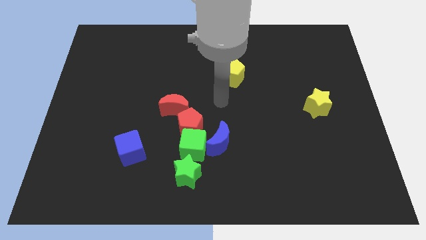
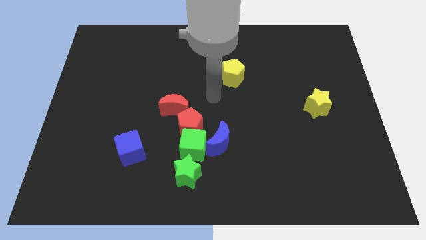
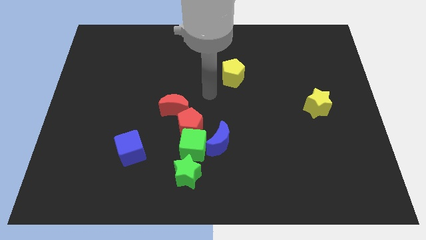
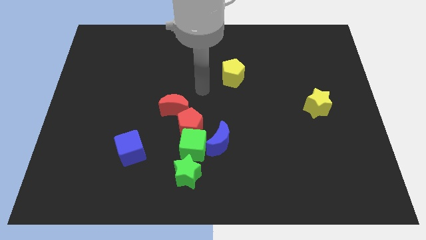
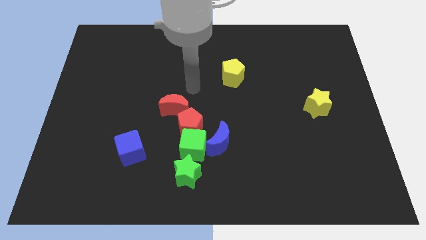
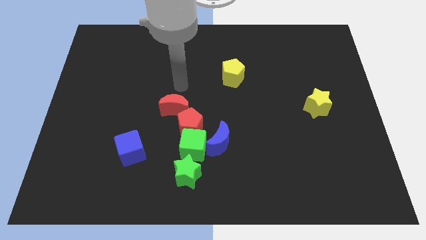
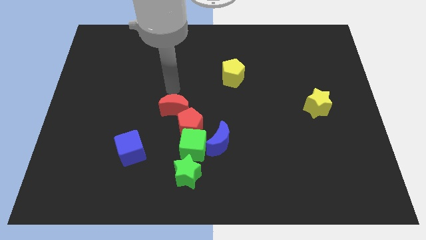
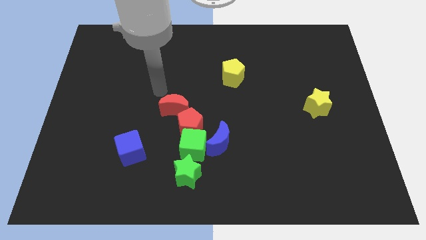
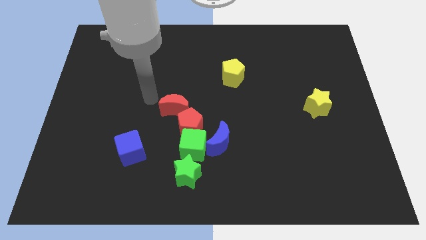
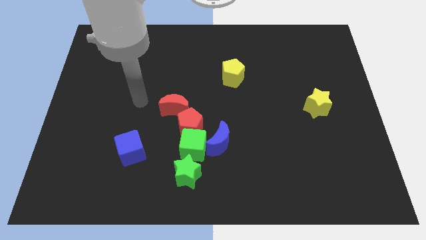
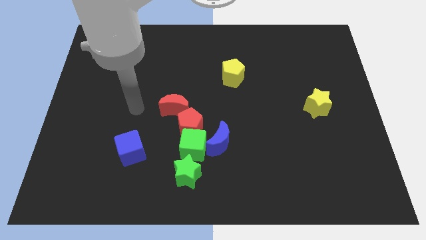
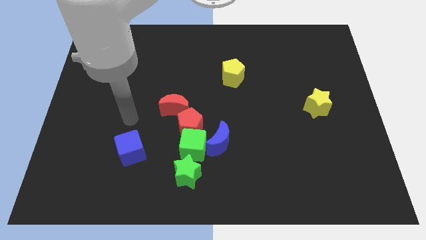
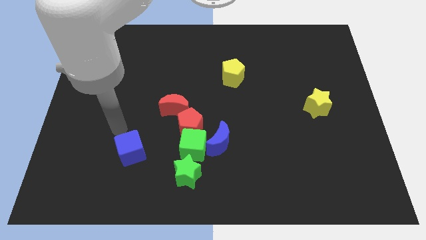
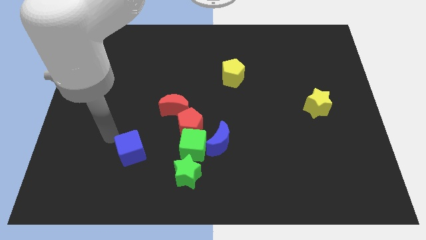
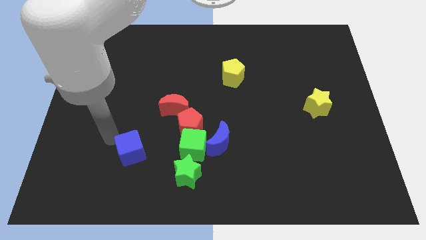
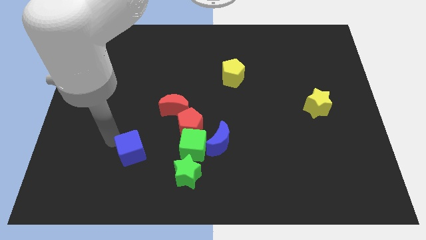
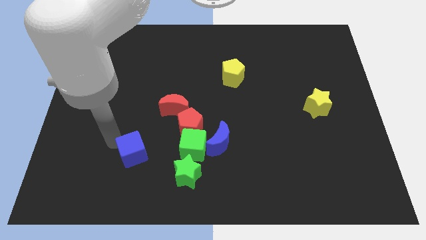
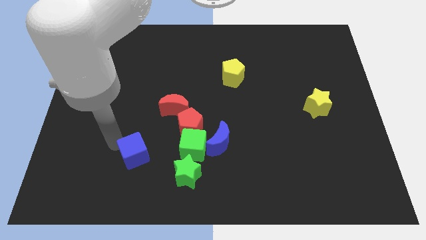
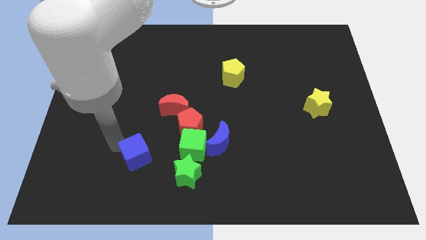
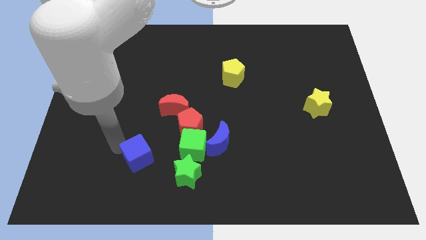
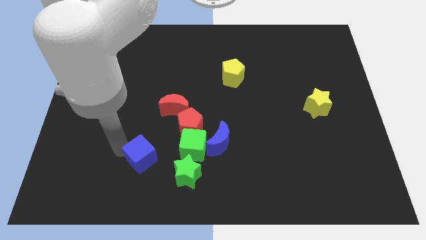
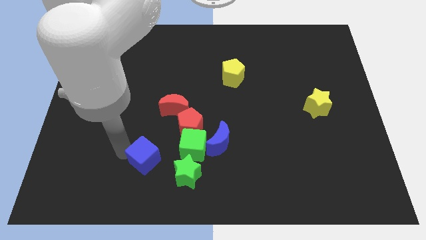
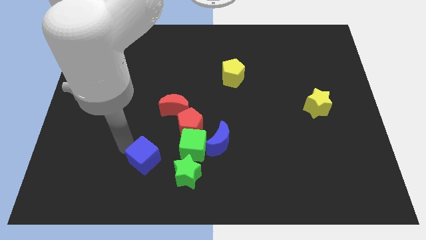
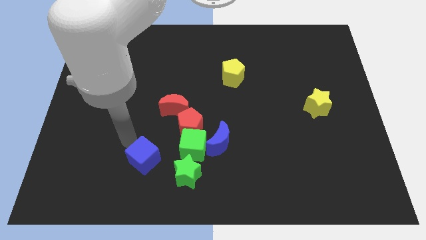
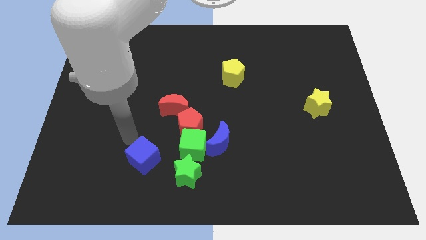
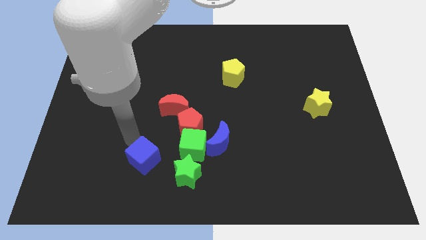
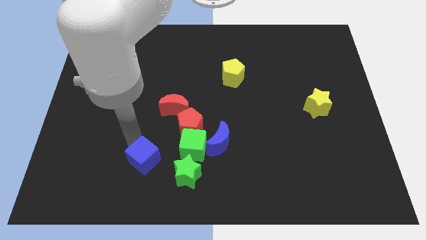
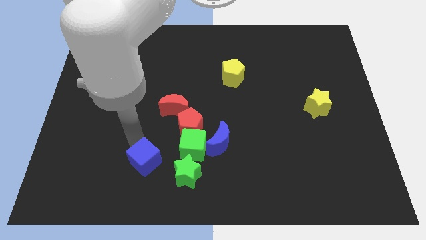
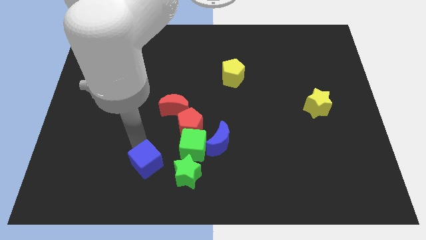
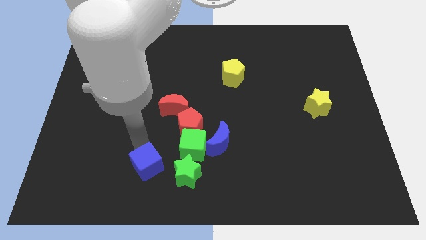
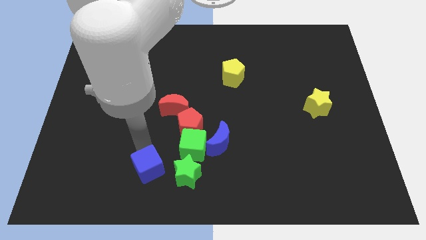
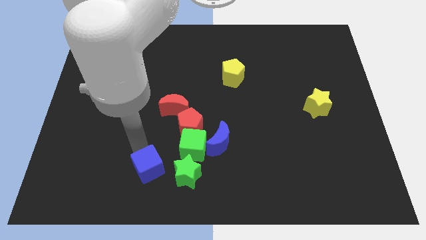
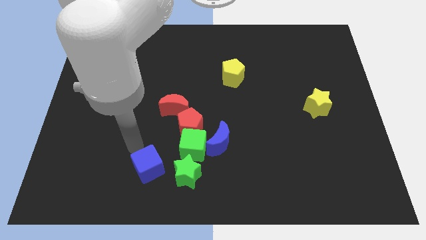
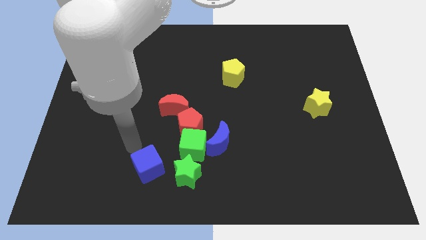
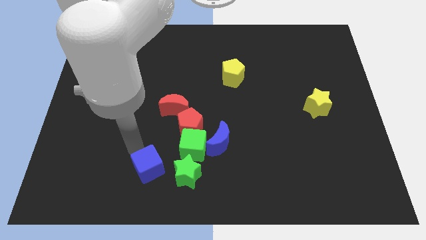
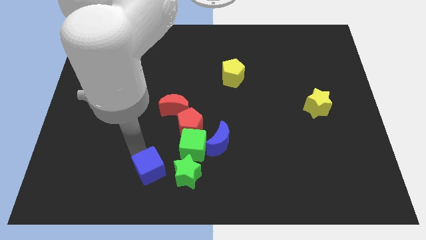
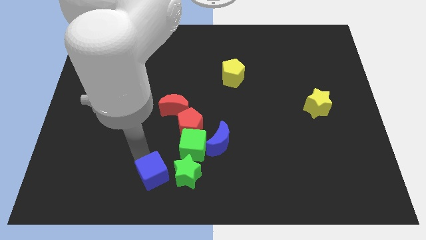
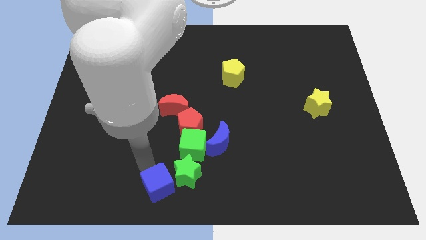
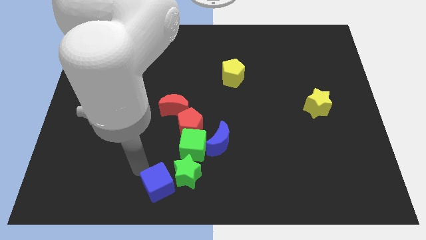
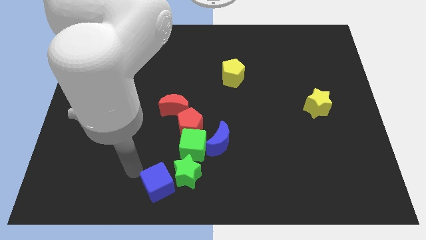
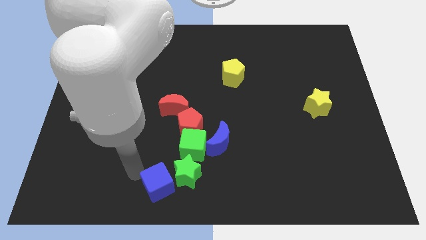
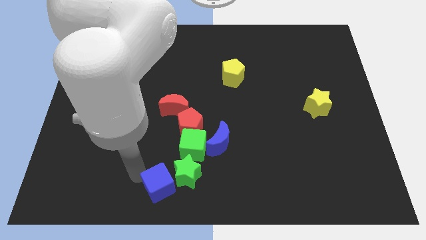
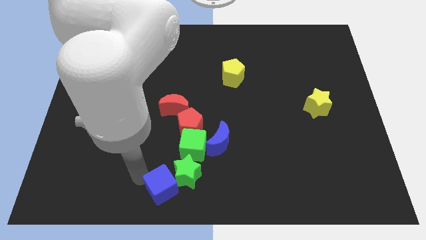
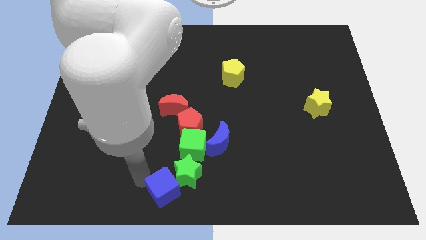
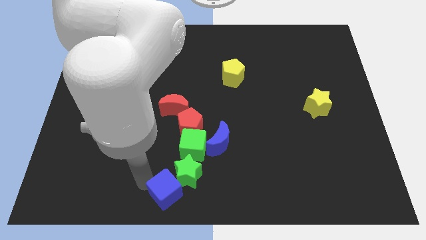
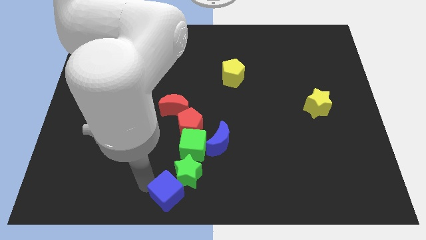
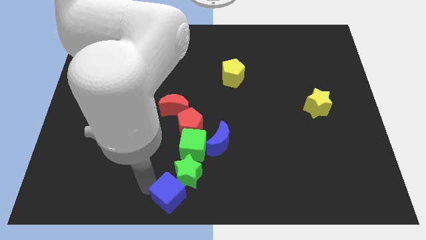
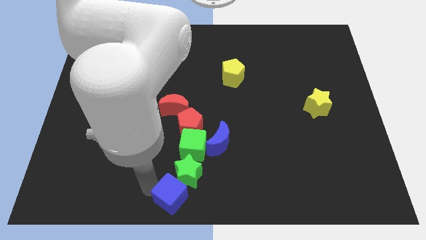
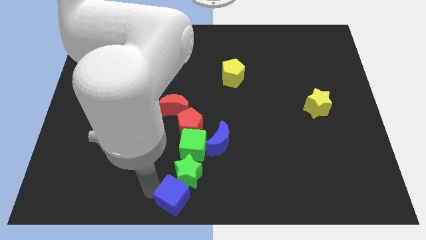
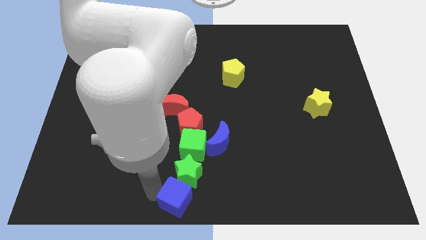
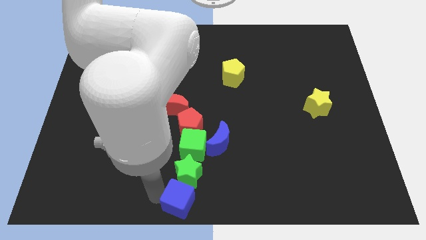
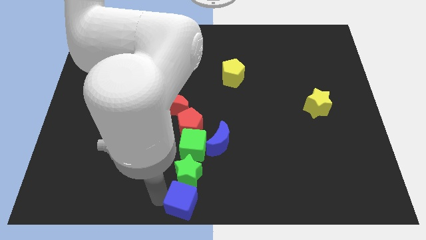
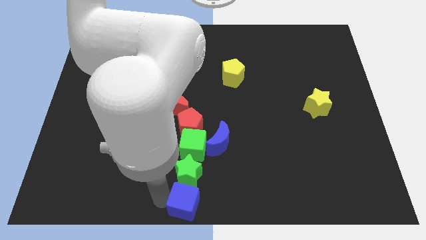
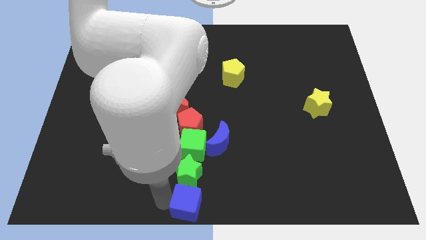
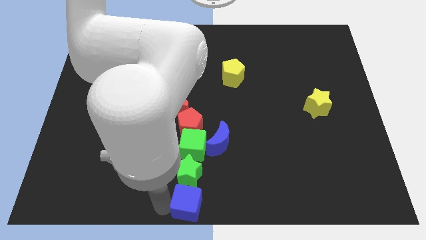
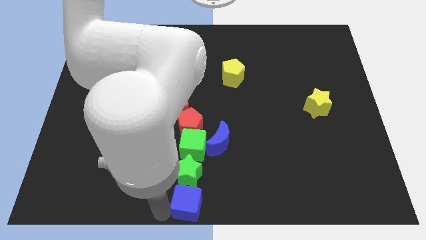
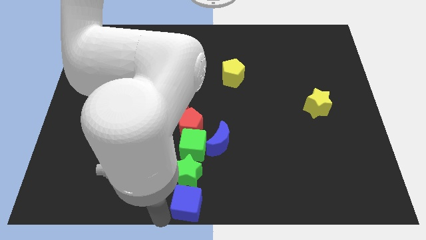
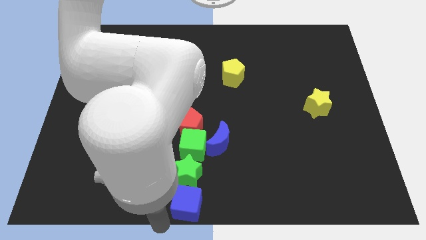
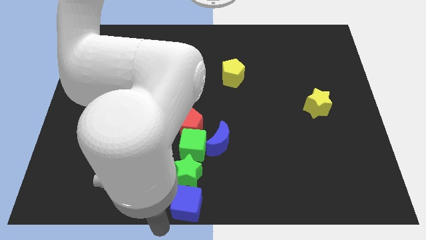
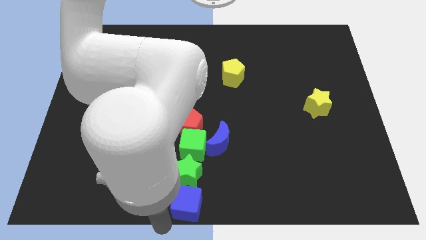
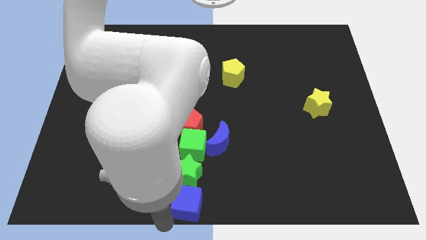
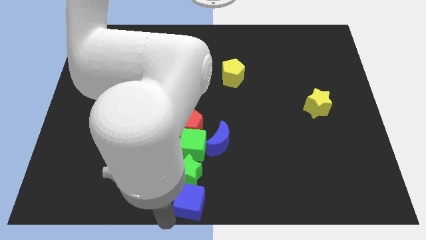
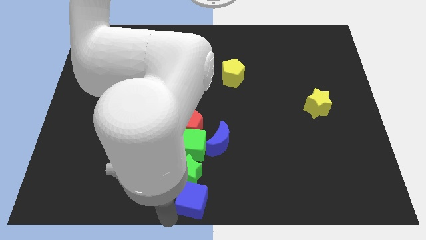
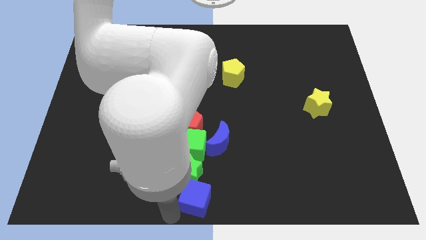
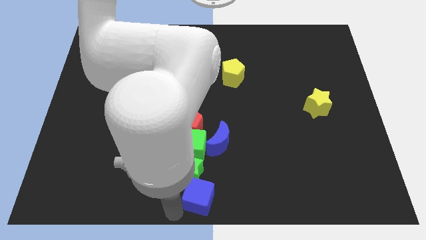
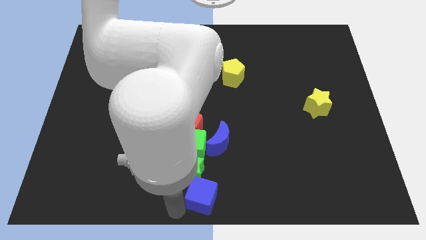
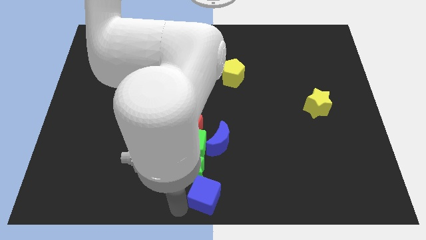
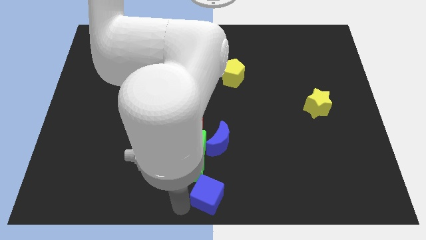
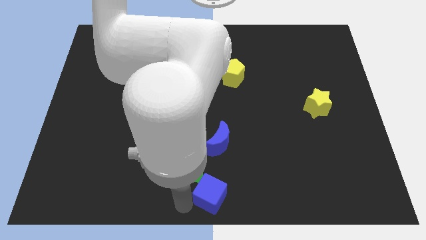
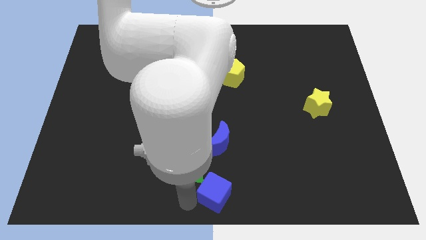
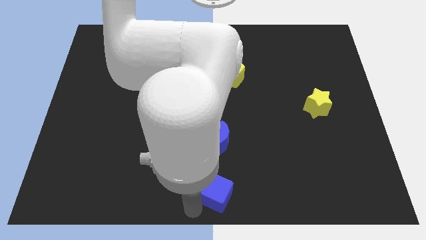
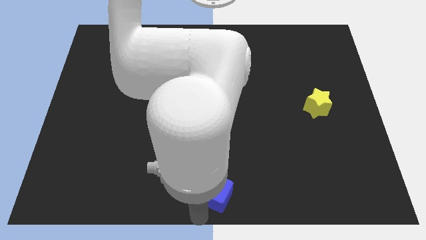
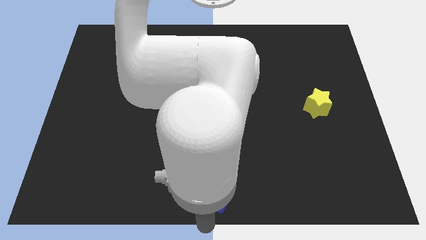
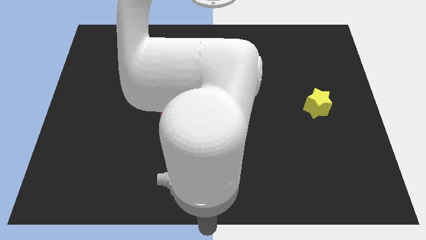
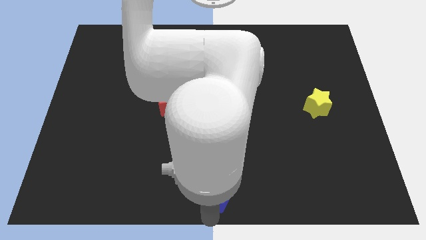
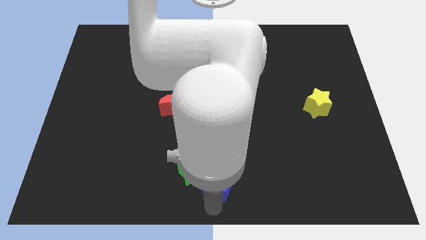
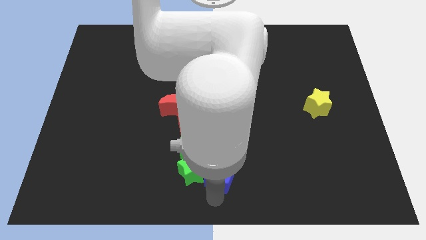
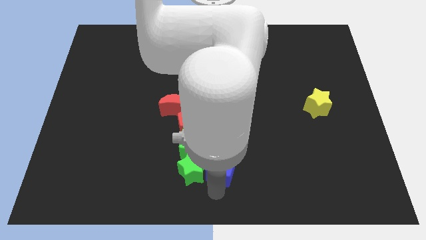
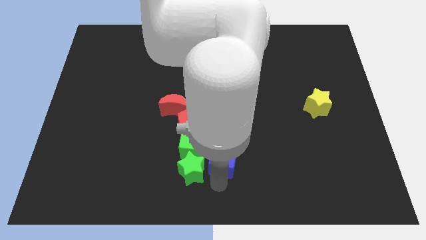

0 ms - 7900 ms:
move the blue cube next to the blue moon
